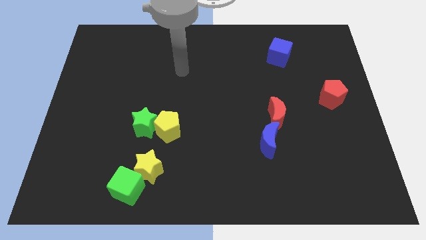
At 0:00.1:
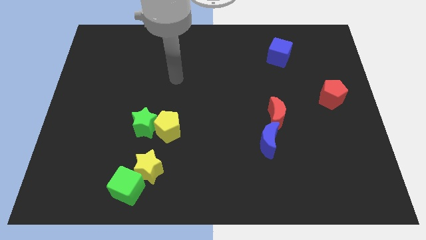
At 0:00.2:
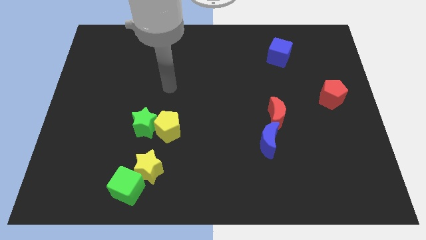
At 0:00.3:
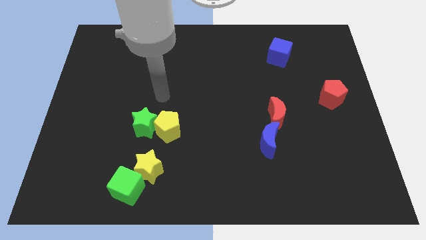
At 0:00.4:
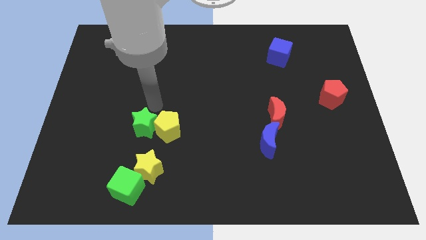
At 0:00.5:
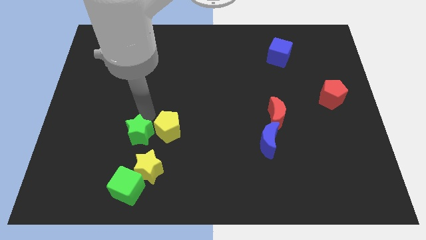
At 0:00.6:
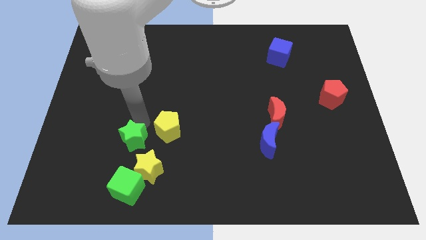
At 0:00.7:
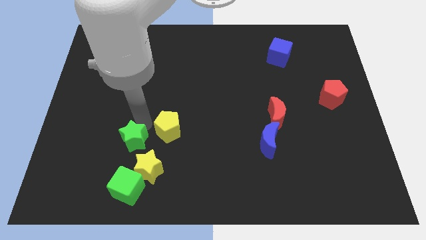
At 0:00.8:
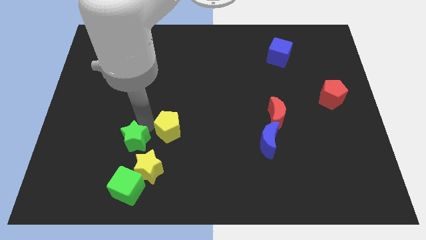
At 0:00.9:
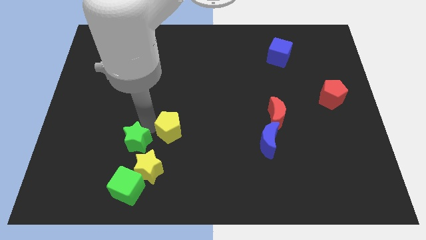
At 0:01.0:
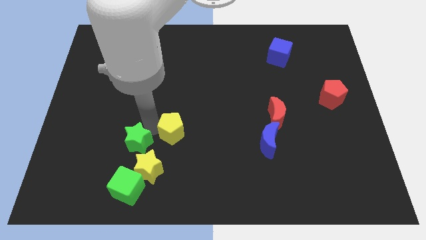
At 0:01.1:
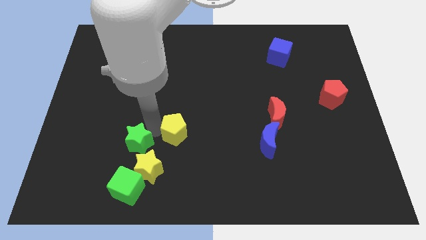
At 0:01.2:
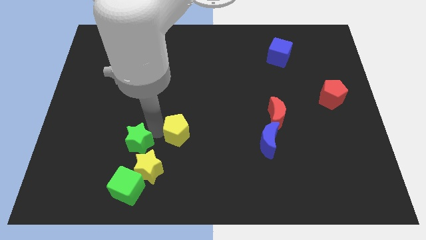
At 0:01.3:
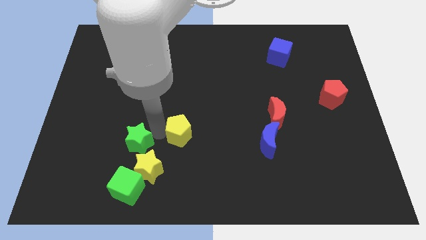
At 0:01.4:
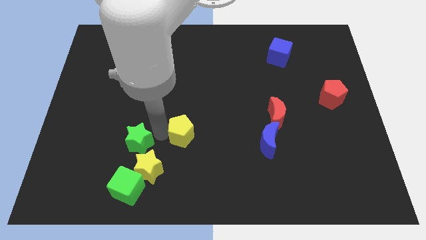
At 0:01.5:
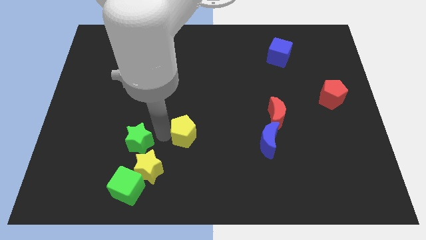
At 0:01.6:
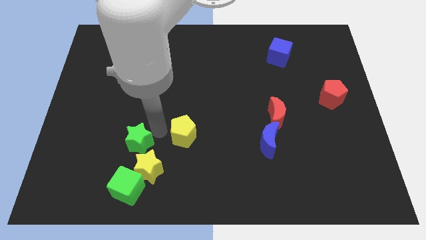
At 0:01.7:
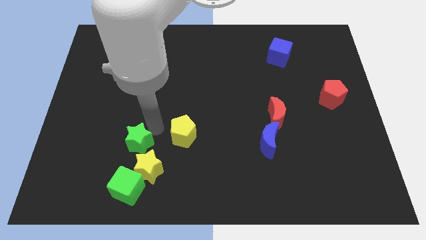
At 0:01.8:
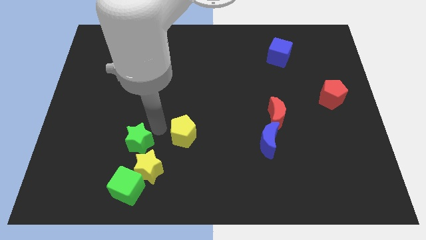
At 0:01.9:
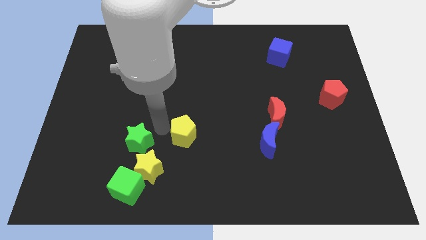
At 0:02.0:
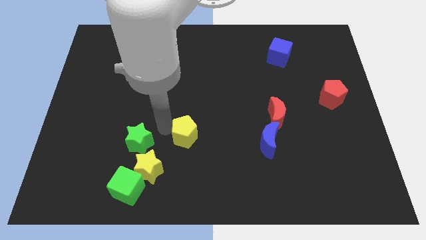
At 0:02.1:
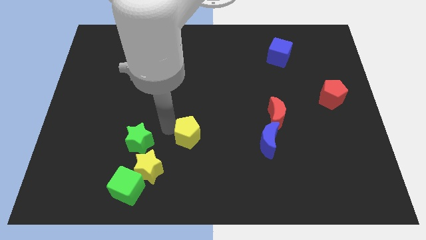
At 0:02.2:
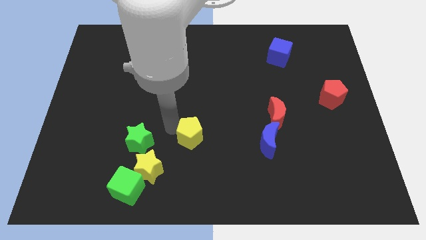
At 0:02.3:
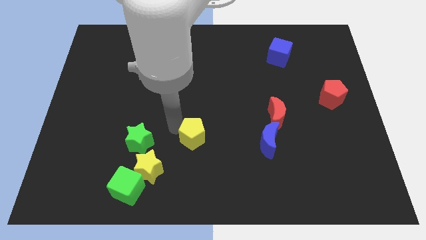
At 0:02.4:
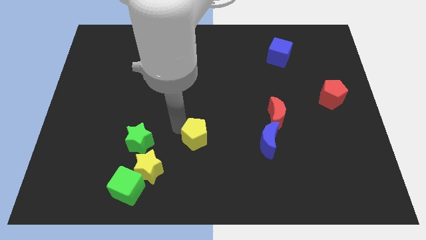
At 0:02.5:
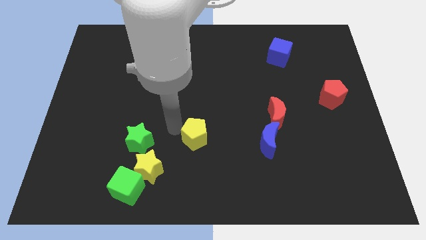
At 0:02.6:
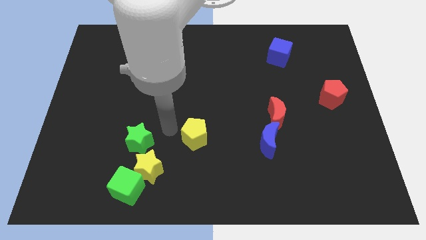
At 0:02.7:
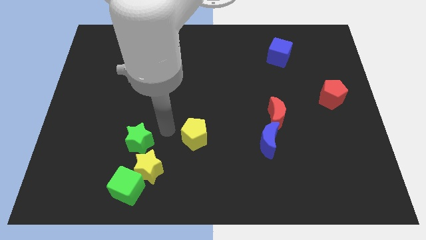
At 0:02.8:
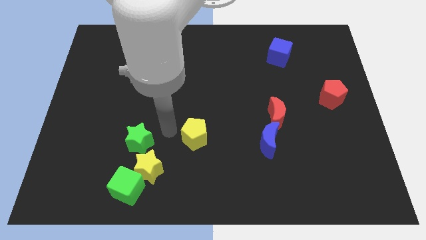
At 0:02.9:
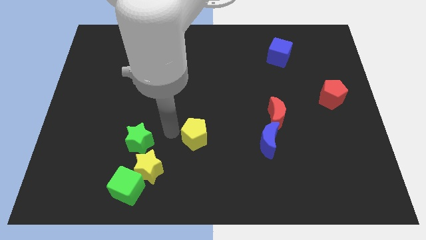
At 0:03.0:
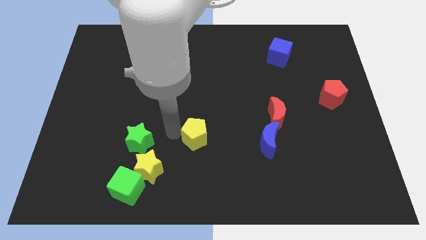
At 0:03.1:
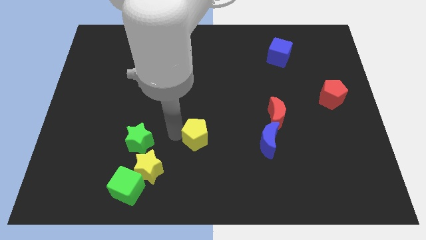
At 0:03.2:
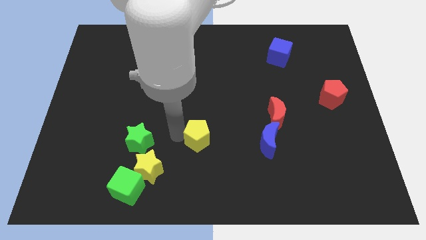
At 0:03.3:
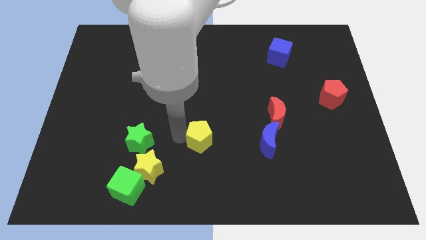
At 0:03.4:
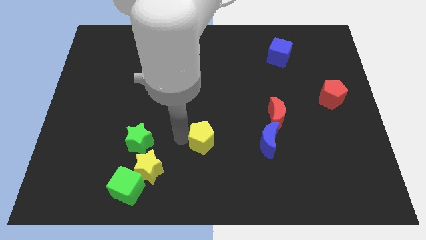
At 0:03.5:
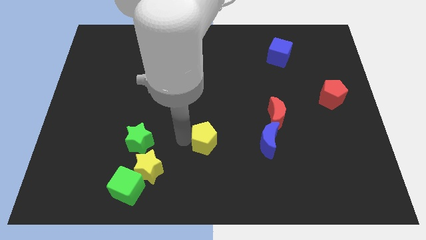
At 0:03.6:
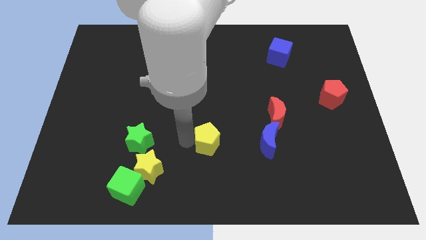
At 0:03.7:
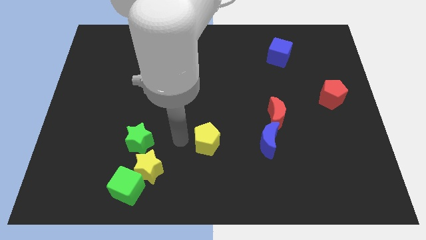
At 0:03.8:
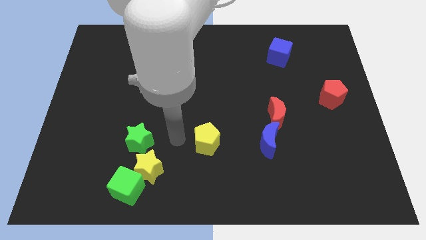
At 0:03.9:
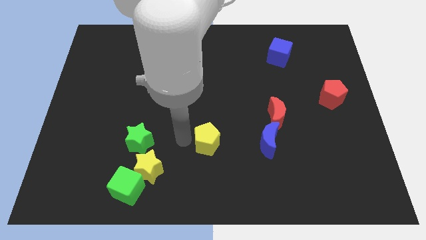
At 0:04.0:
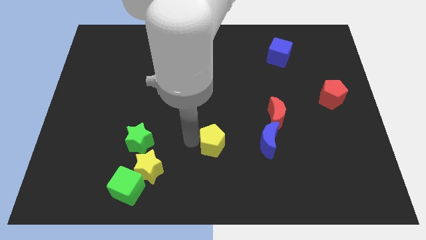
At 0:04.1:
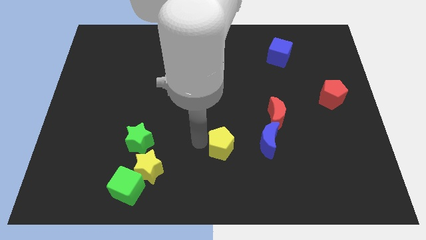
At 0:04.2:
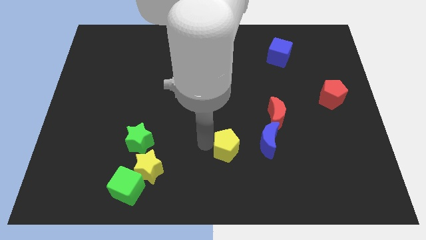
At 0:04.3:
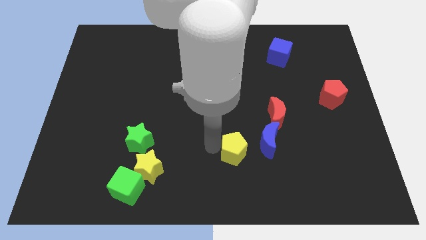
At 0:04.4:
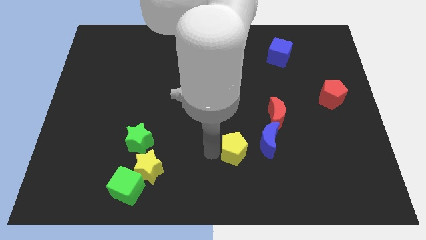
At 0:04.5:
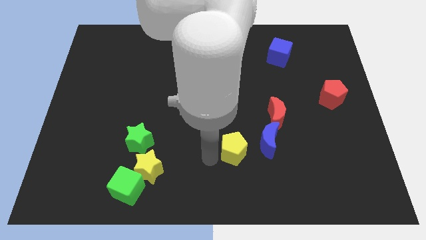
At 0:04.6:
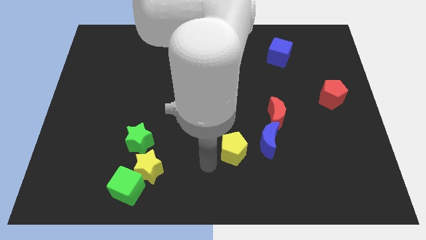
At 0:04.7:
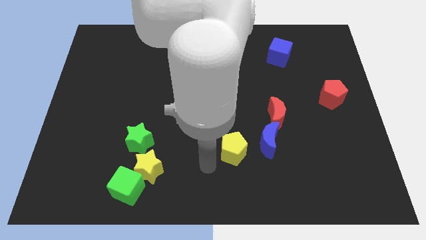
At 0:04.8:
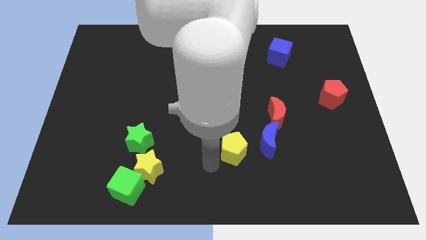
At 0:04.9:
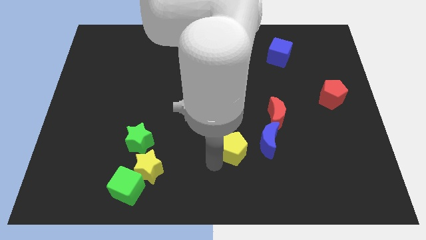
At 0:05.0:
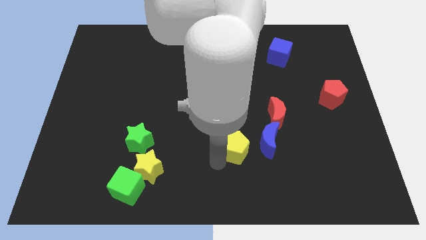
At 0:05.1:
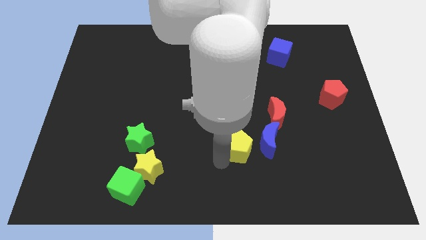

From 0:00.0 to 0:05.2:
slide the yellow pentagon to the bottom left side of the red moon

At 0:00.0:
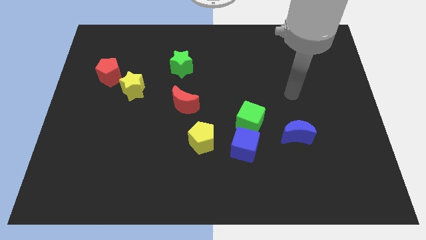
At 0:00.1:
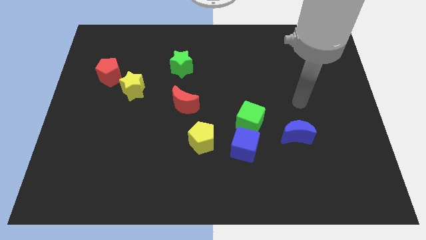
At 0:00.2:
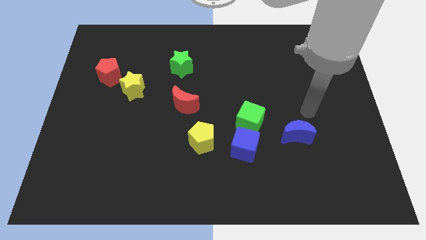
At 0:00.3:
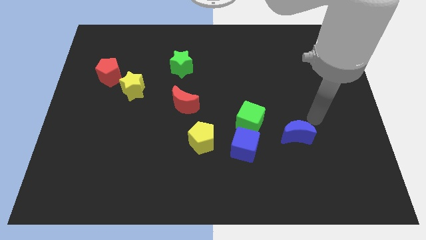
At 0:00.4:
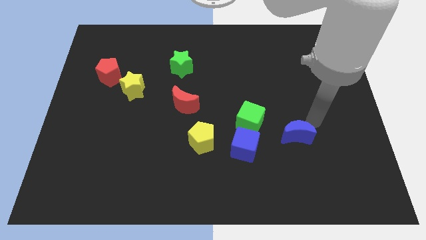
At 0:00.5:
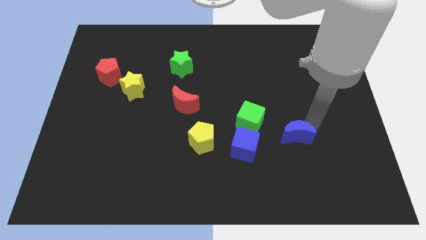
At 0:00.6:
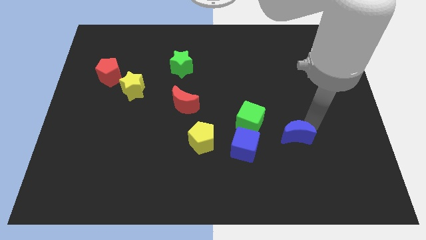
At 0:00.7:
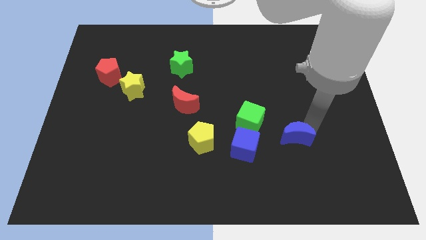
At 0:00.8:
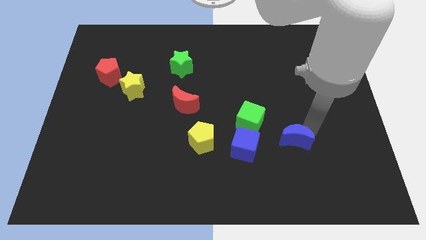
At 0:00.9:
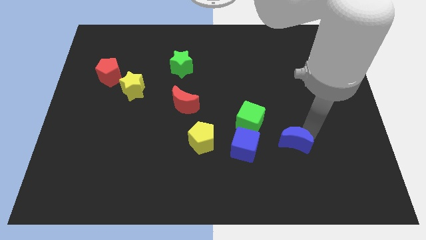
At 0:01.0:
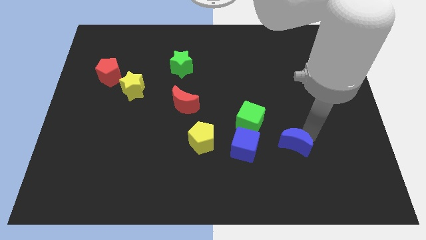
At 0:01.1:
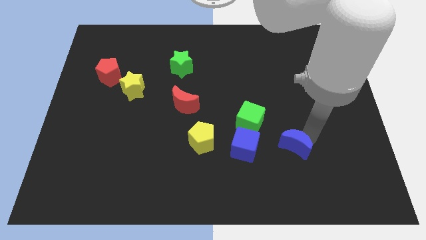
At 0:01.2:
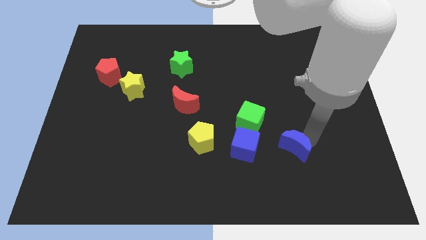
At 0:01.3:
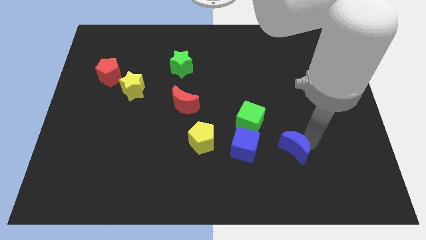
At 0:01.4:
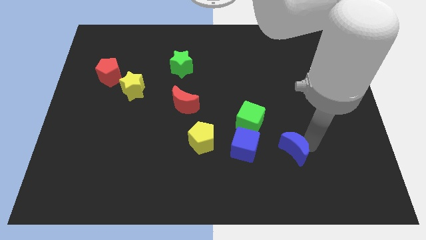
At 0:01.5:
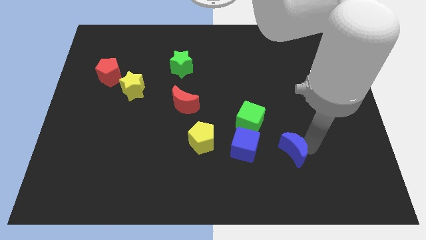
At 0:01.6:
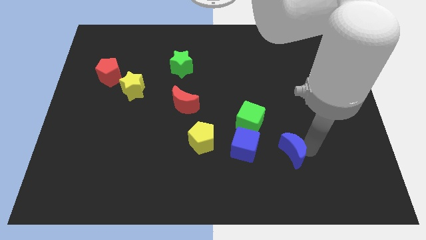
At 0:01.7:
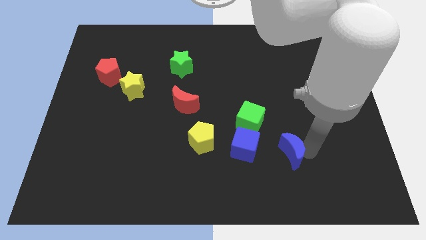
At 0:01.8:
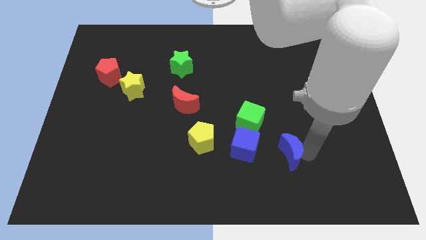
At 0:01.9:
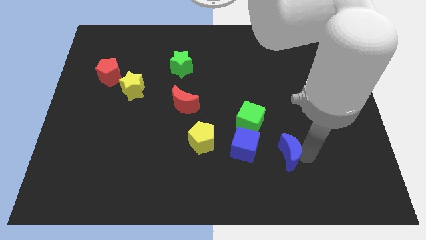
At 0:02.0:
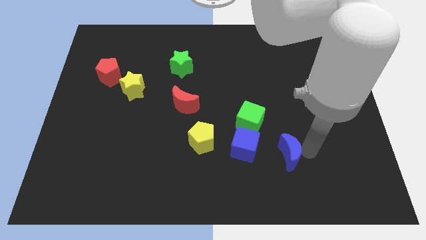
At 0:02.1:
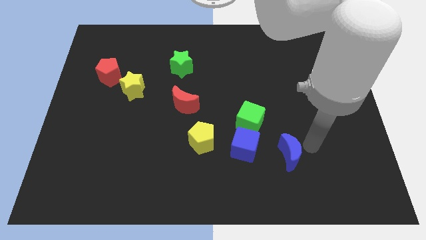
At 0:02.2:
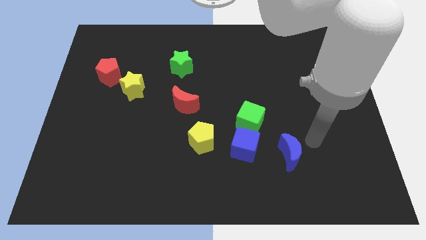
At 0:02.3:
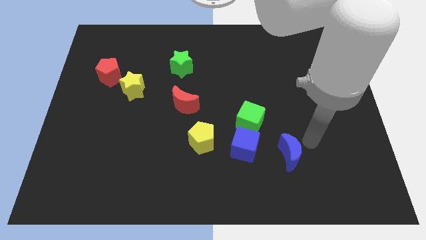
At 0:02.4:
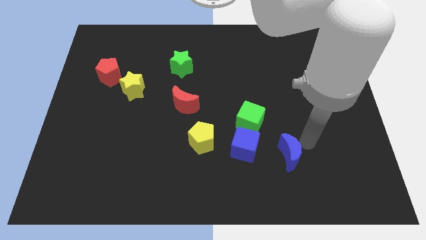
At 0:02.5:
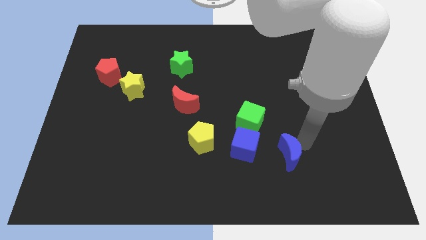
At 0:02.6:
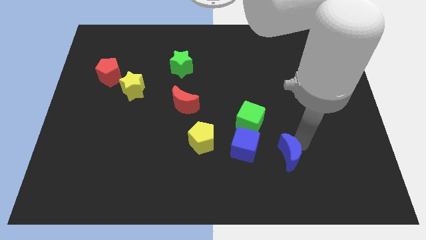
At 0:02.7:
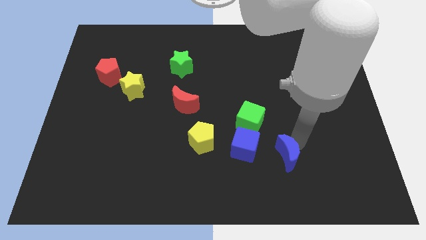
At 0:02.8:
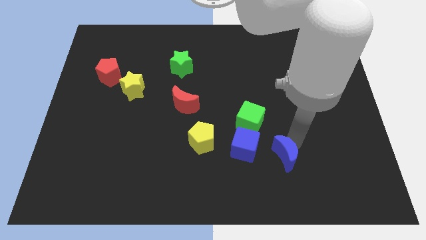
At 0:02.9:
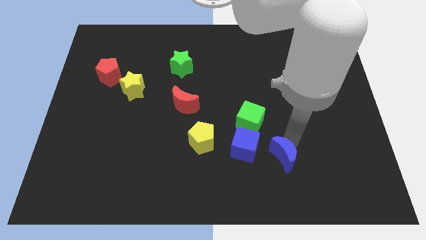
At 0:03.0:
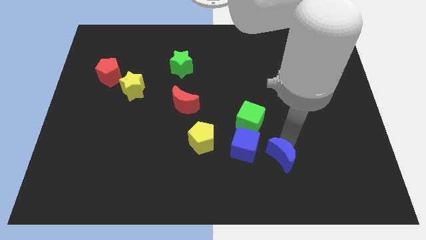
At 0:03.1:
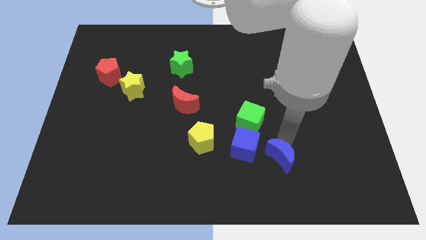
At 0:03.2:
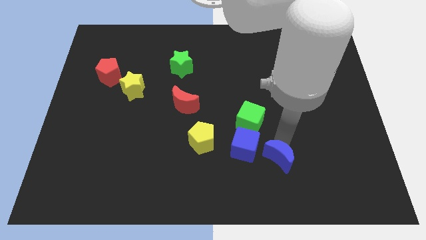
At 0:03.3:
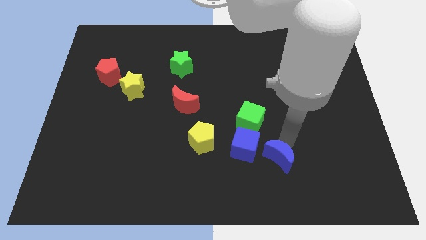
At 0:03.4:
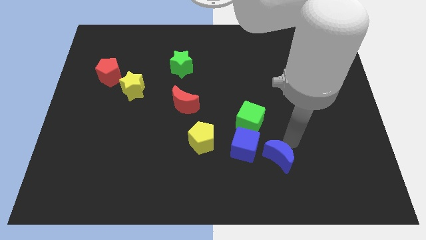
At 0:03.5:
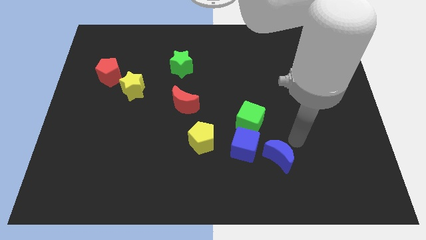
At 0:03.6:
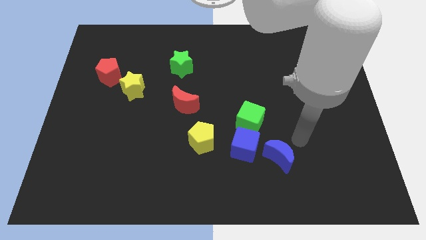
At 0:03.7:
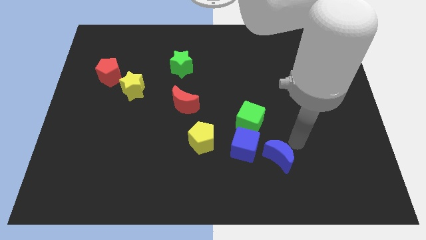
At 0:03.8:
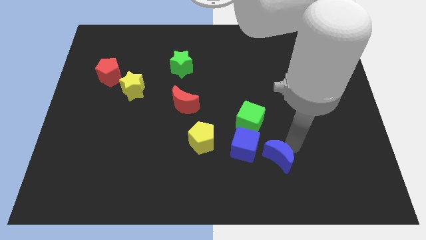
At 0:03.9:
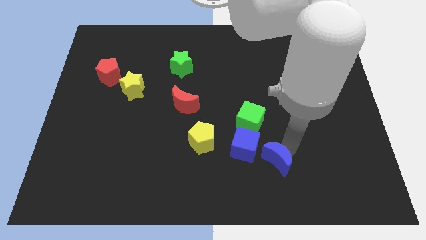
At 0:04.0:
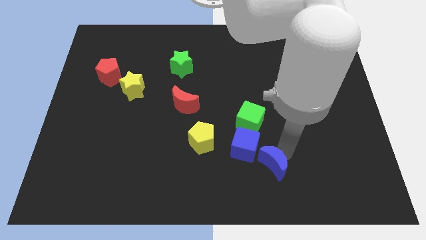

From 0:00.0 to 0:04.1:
push the blue moon below the green cube
